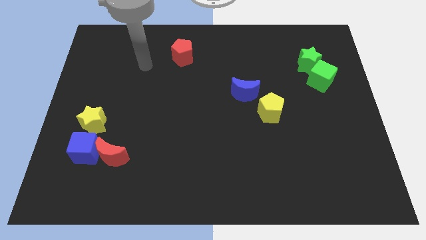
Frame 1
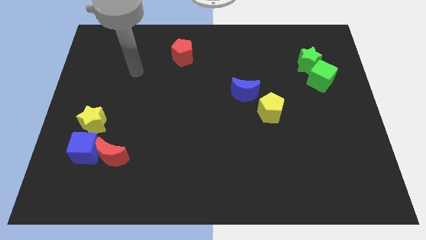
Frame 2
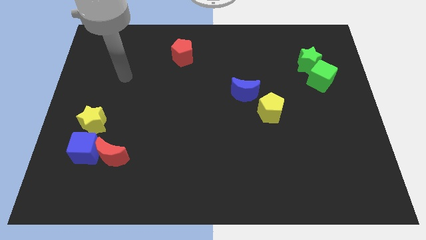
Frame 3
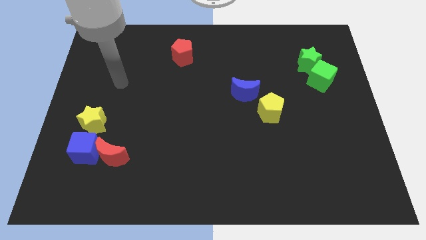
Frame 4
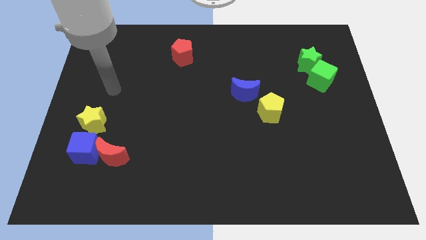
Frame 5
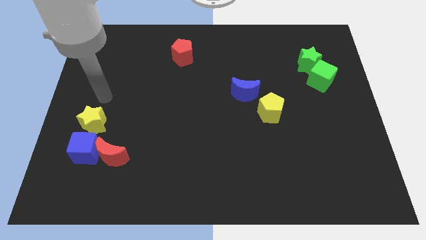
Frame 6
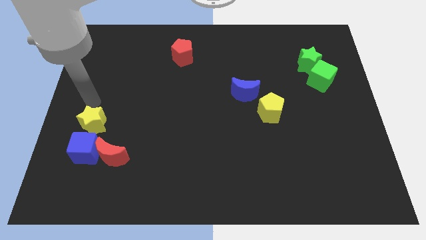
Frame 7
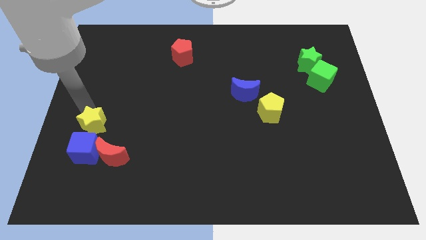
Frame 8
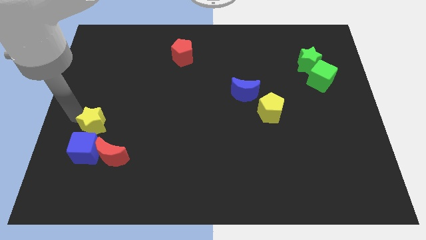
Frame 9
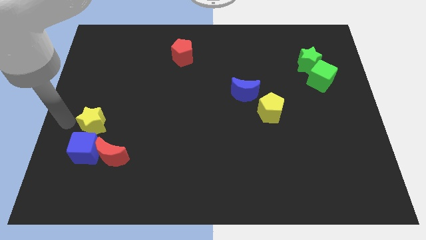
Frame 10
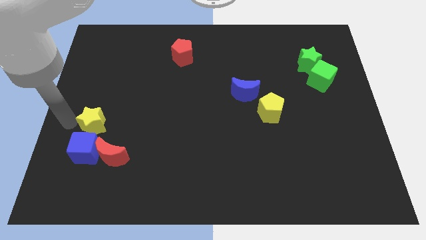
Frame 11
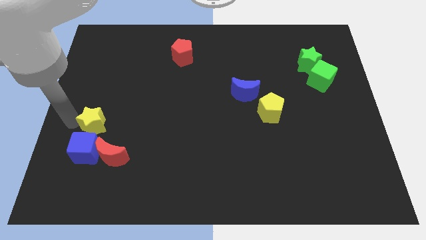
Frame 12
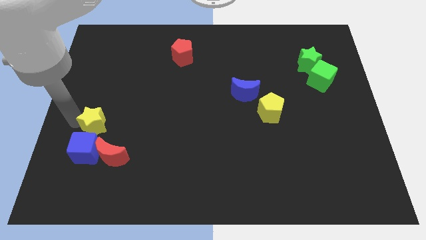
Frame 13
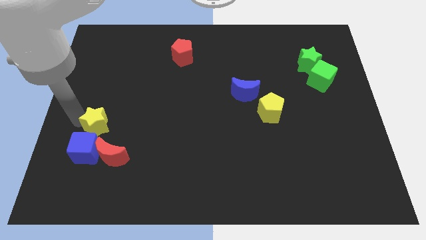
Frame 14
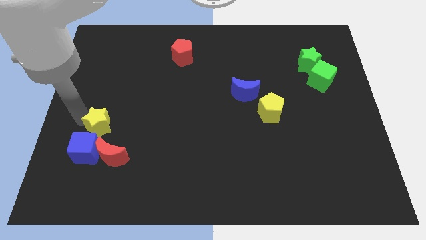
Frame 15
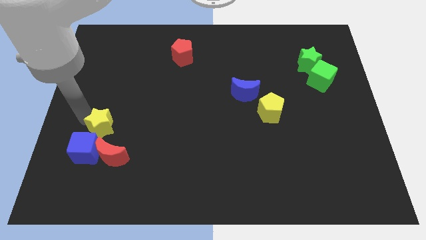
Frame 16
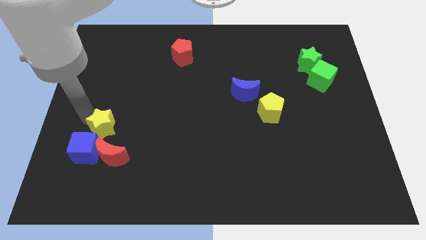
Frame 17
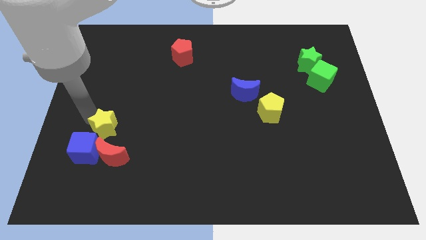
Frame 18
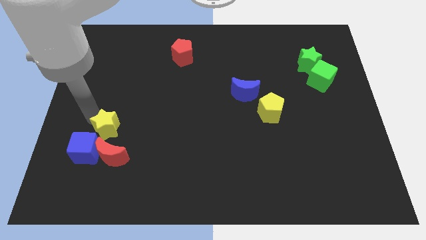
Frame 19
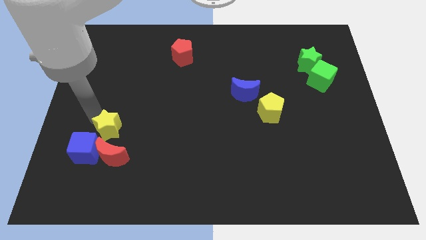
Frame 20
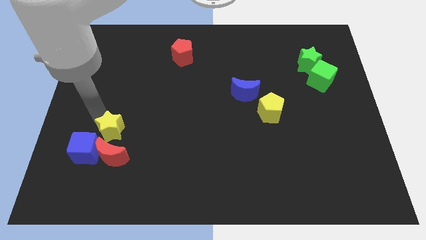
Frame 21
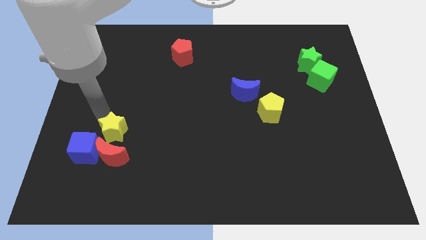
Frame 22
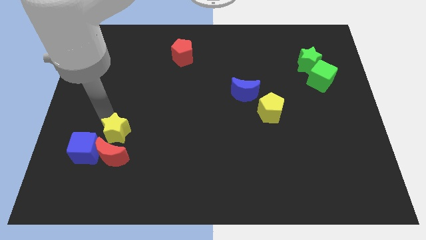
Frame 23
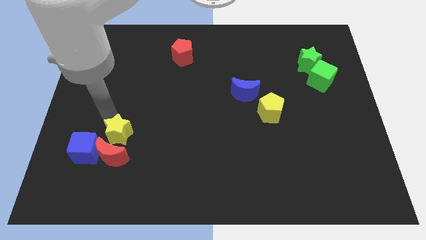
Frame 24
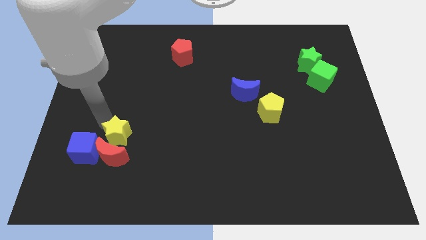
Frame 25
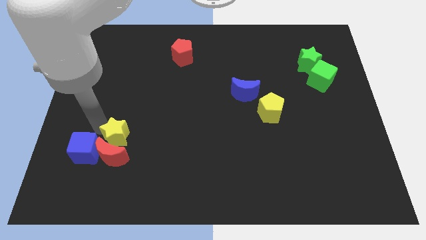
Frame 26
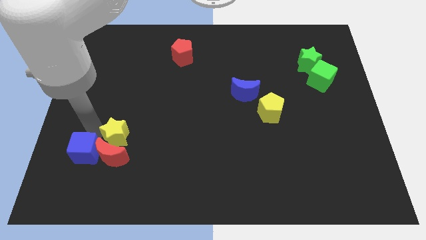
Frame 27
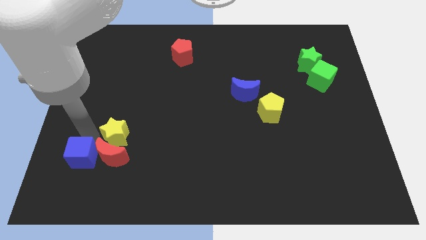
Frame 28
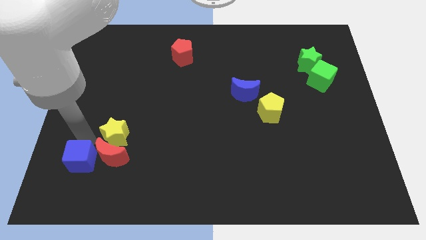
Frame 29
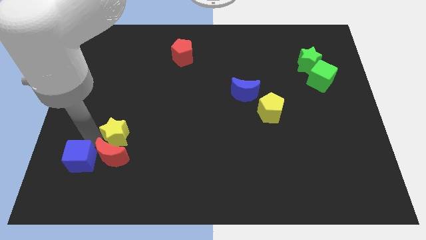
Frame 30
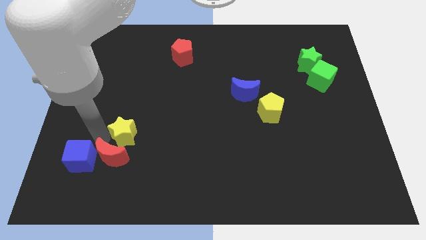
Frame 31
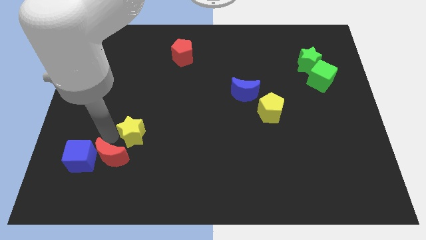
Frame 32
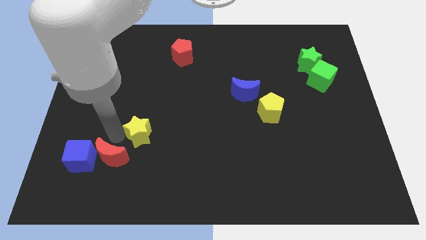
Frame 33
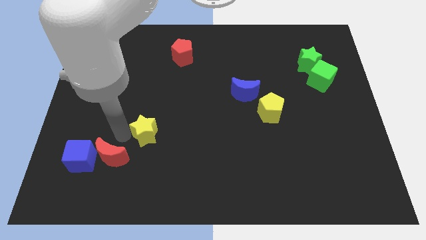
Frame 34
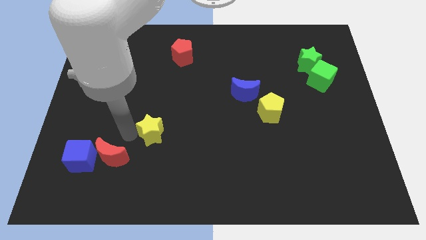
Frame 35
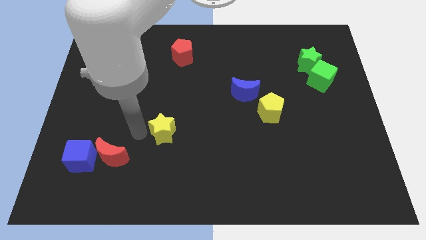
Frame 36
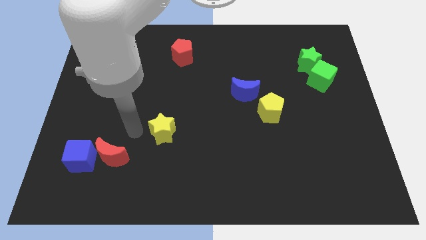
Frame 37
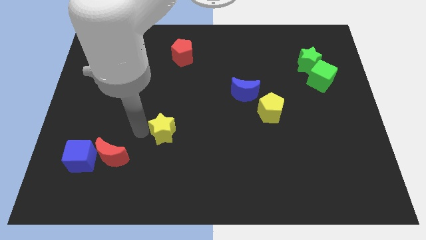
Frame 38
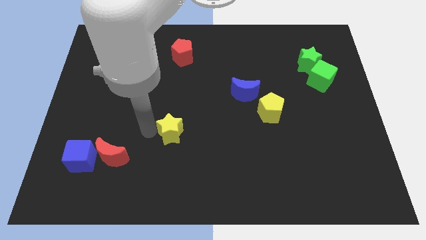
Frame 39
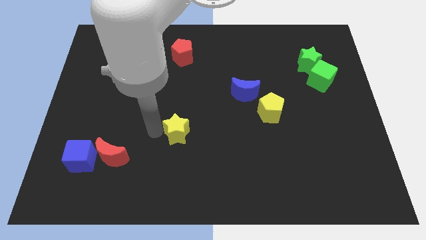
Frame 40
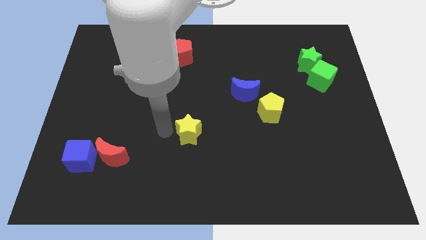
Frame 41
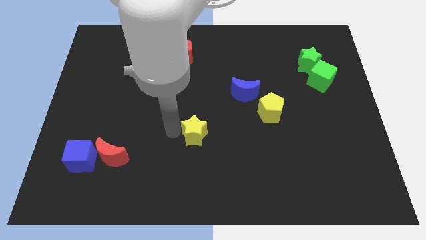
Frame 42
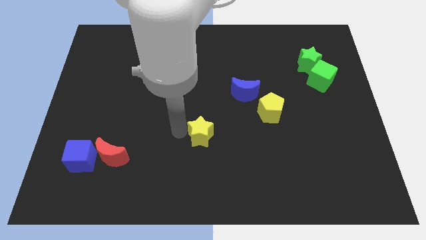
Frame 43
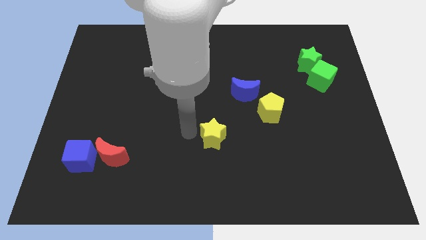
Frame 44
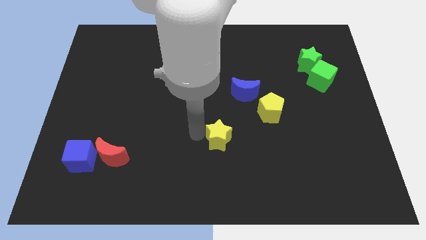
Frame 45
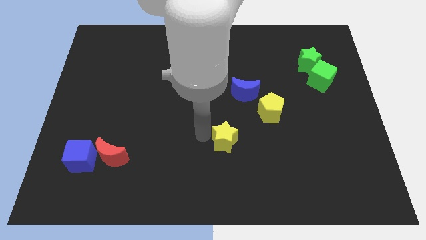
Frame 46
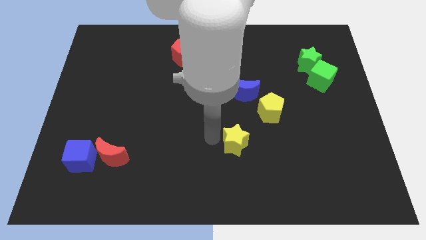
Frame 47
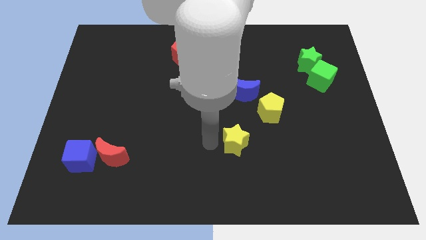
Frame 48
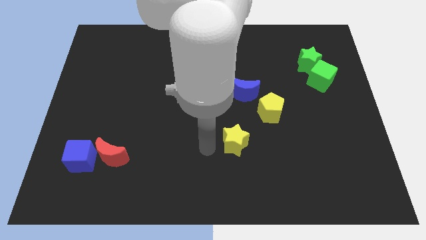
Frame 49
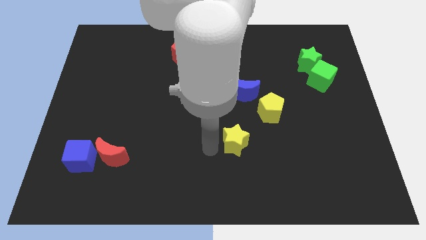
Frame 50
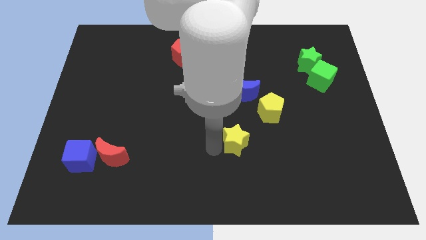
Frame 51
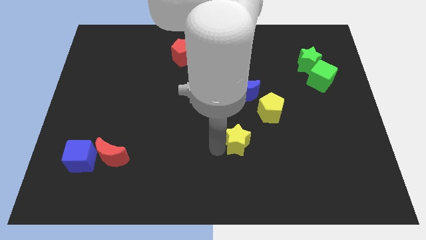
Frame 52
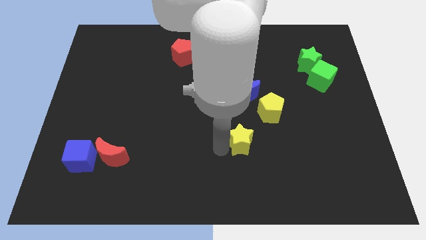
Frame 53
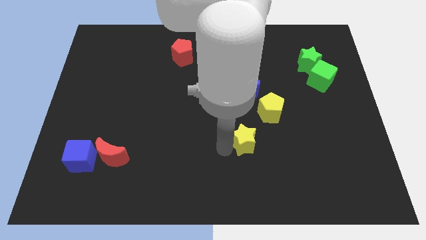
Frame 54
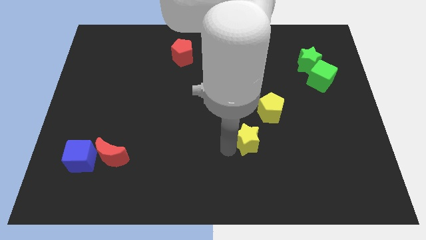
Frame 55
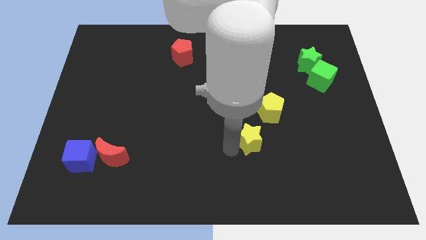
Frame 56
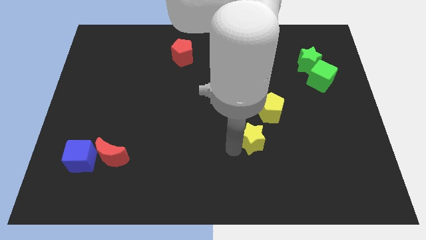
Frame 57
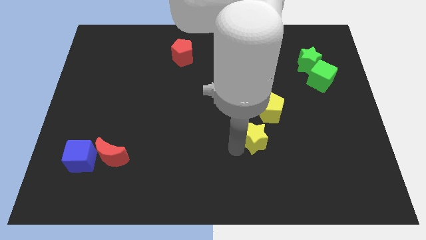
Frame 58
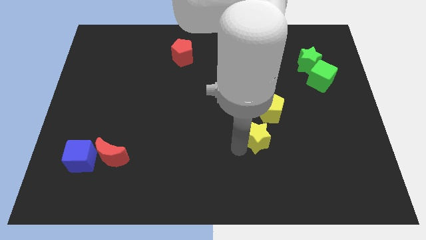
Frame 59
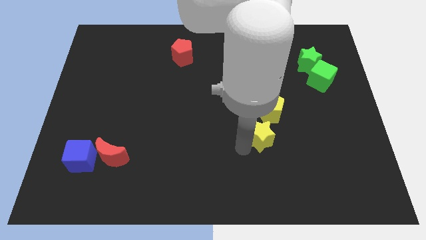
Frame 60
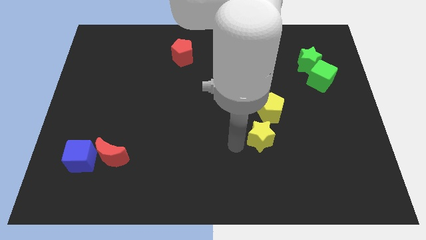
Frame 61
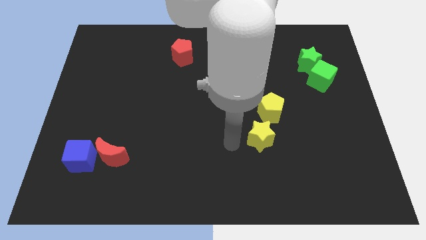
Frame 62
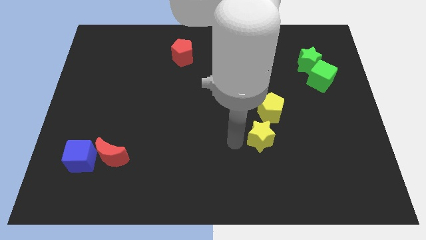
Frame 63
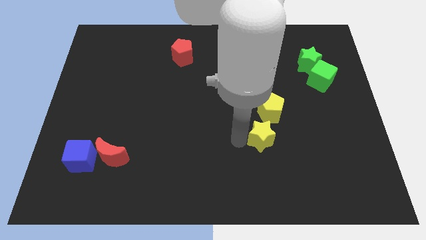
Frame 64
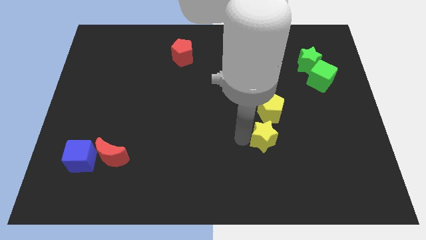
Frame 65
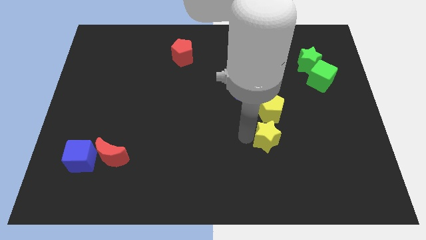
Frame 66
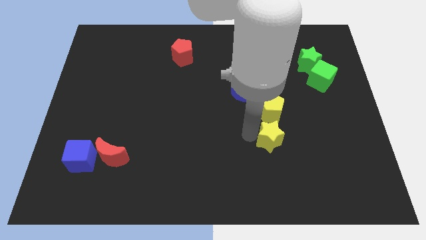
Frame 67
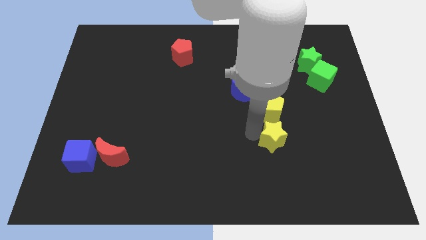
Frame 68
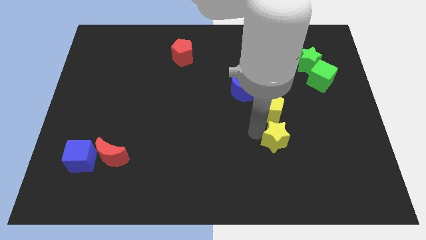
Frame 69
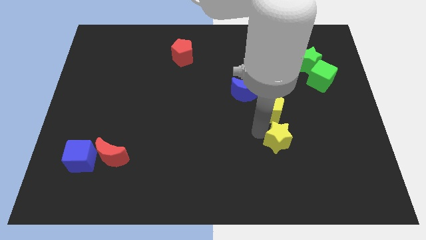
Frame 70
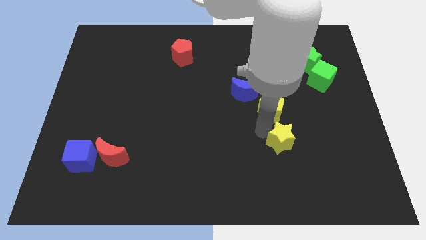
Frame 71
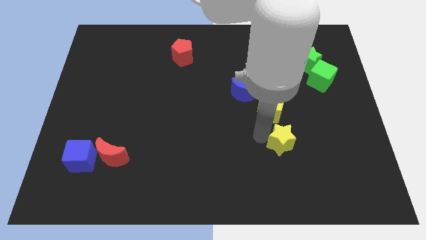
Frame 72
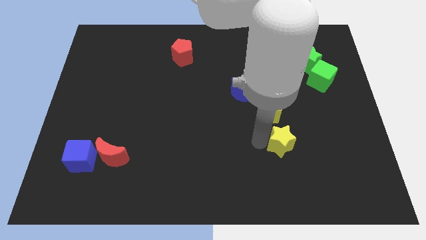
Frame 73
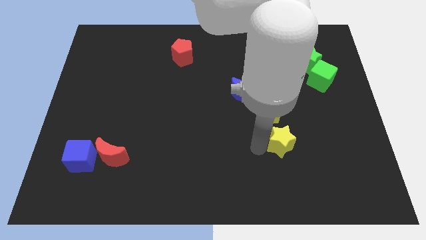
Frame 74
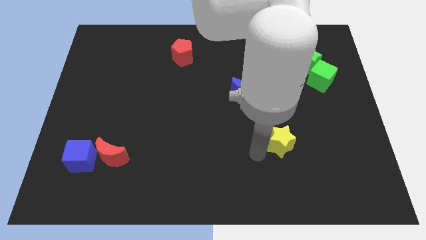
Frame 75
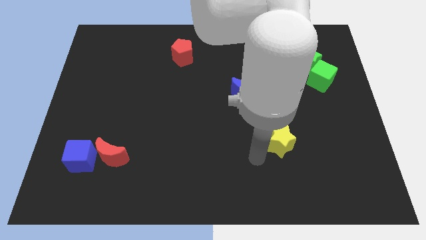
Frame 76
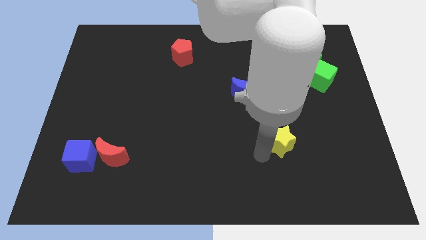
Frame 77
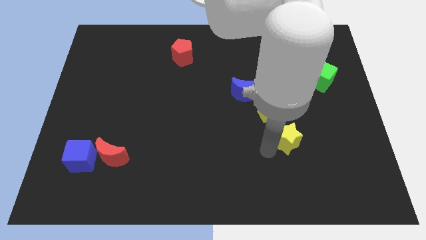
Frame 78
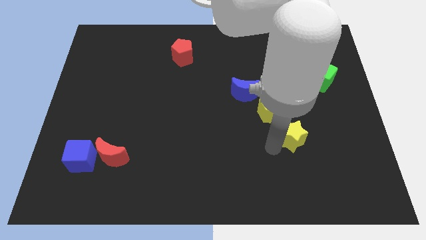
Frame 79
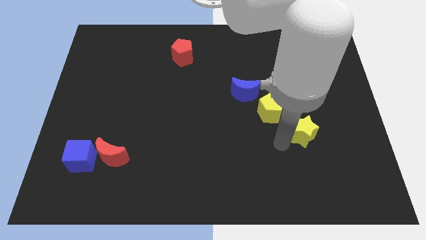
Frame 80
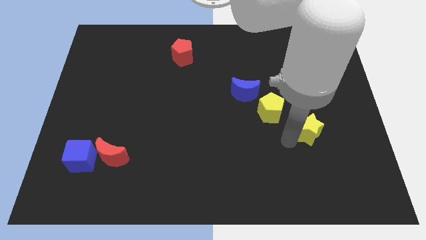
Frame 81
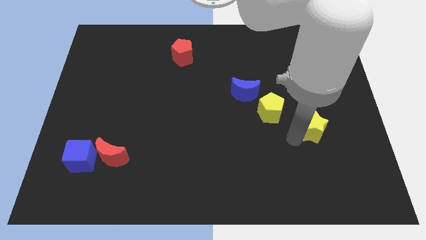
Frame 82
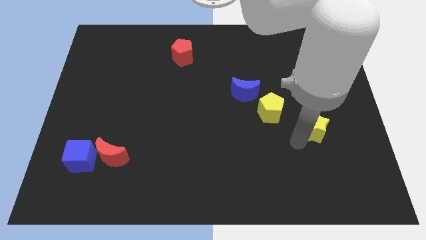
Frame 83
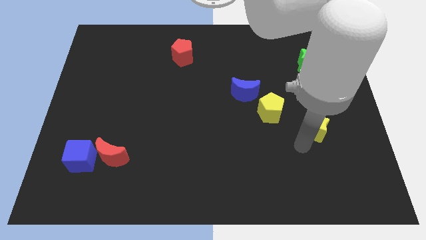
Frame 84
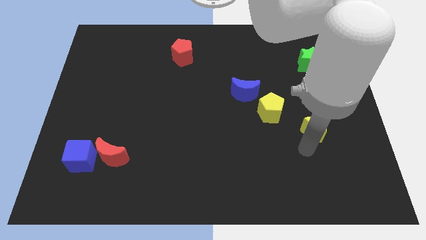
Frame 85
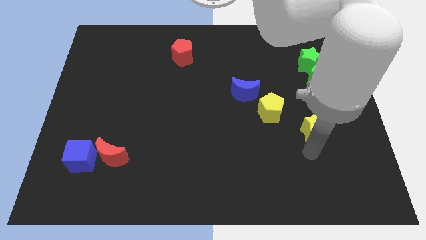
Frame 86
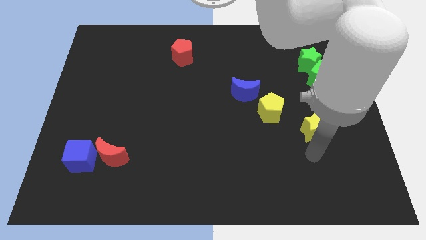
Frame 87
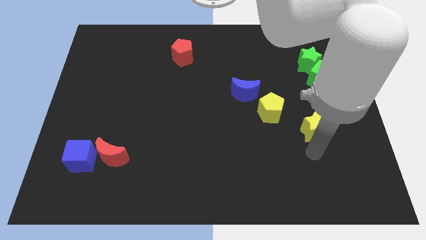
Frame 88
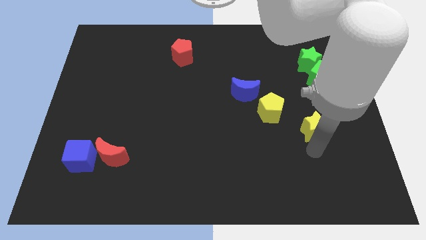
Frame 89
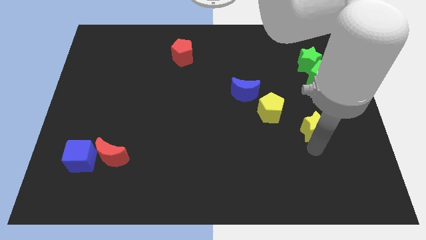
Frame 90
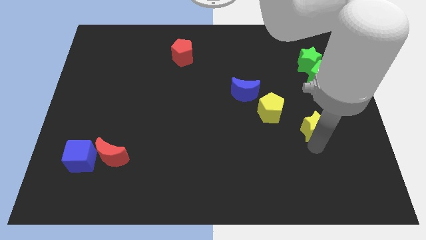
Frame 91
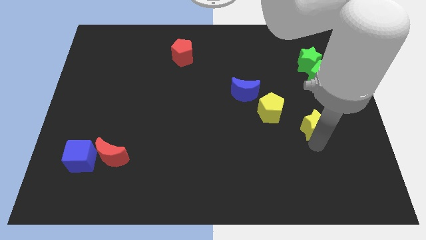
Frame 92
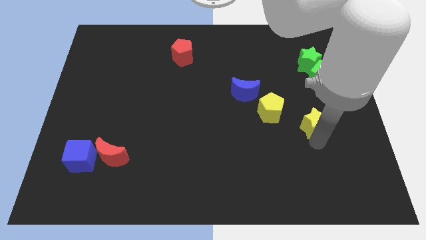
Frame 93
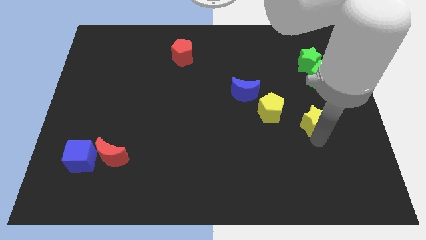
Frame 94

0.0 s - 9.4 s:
put the yellow star to the bottom side of the green cube
